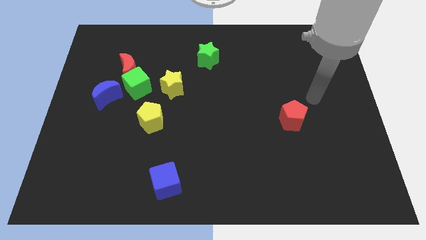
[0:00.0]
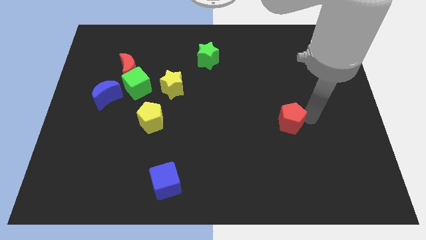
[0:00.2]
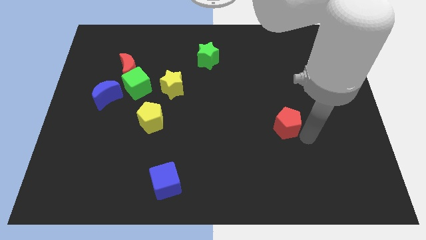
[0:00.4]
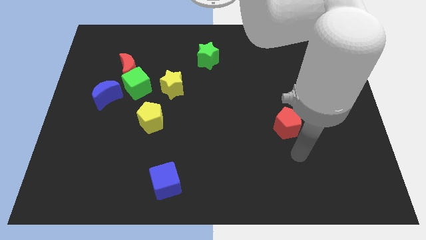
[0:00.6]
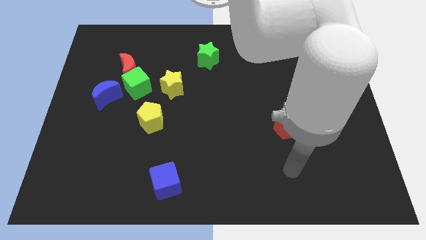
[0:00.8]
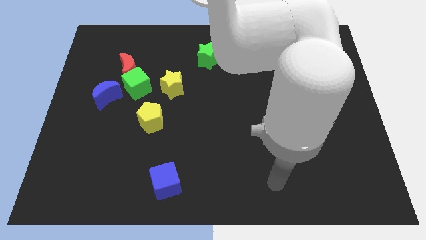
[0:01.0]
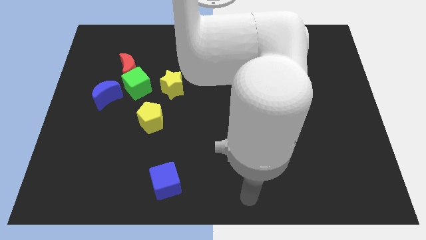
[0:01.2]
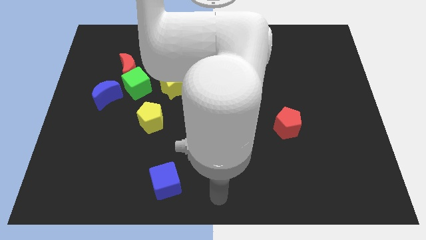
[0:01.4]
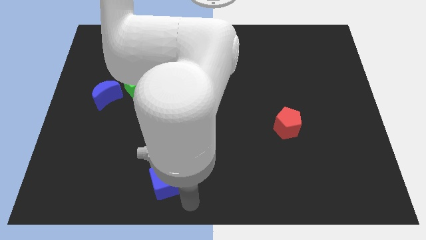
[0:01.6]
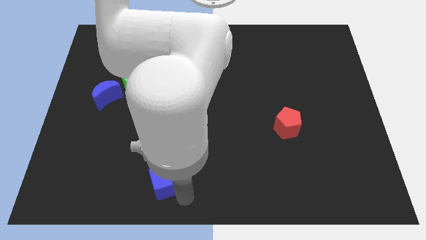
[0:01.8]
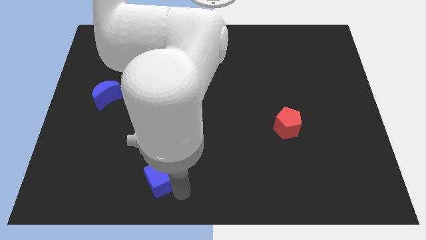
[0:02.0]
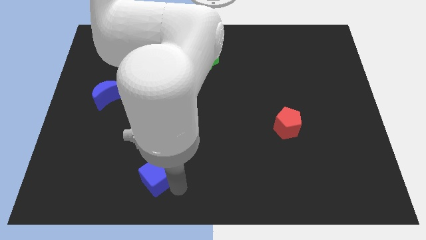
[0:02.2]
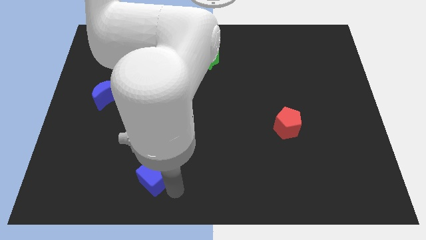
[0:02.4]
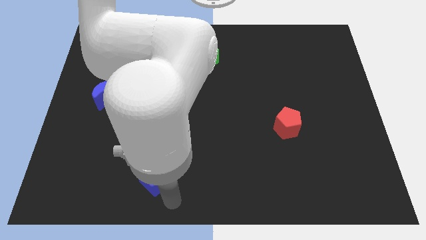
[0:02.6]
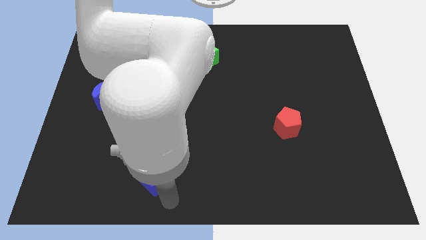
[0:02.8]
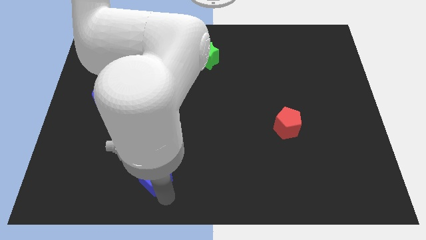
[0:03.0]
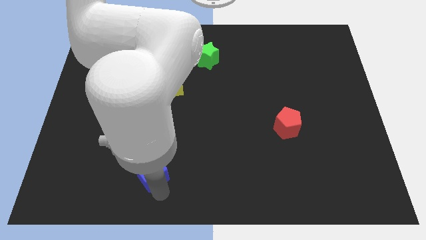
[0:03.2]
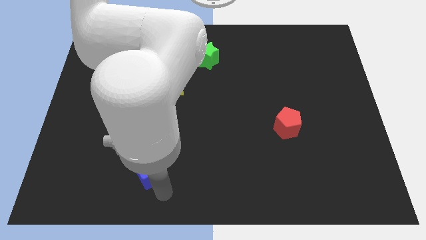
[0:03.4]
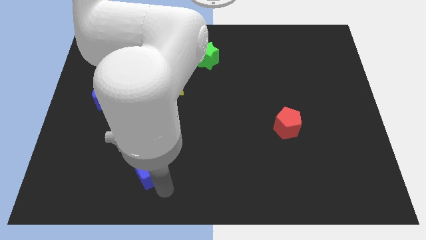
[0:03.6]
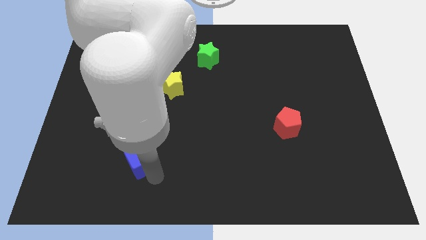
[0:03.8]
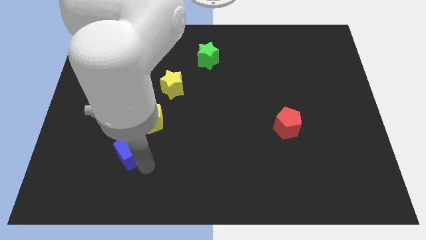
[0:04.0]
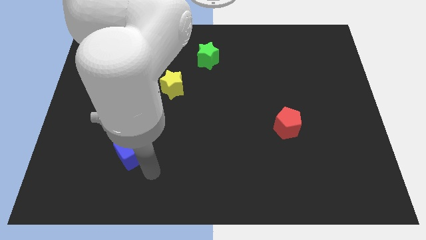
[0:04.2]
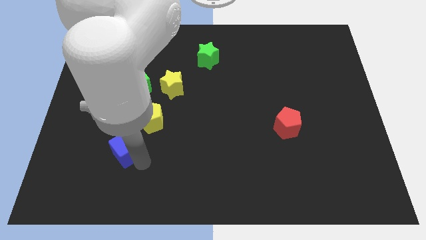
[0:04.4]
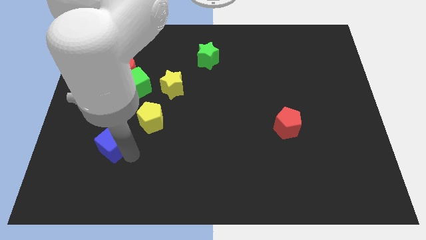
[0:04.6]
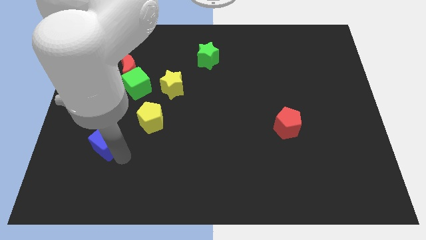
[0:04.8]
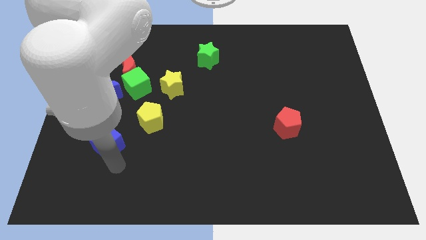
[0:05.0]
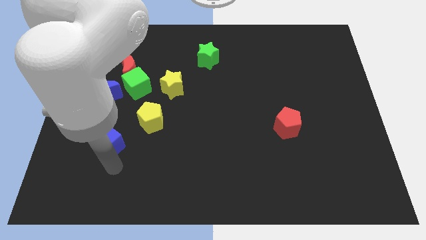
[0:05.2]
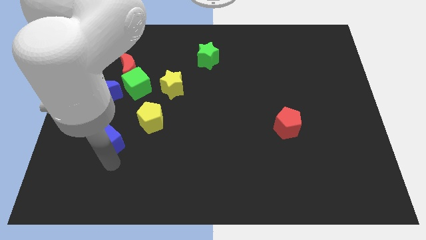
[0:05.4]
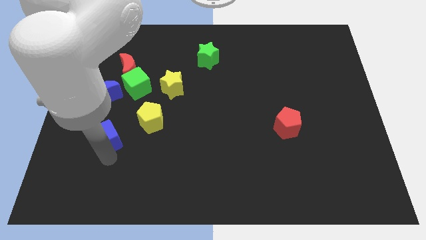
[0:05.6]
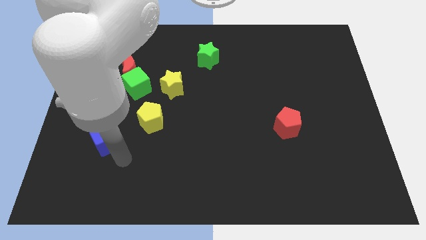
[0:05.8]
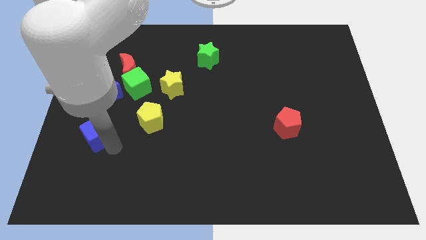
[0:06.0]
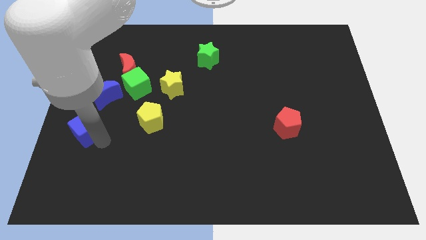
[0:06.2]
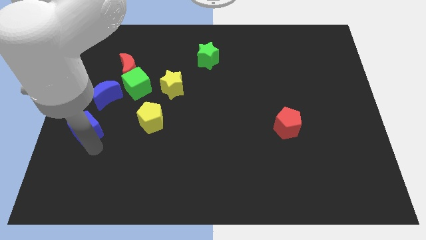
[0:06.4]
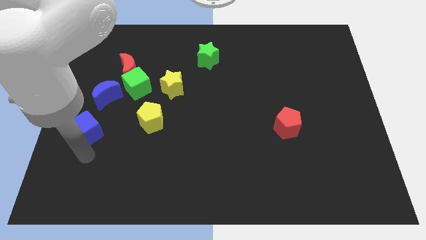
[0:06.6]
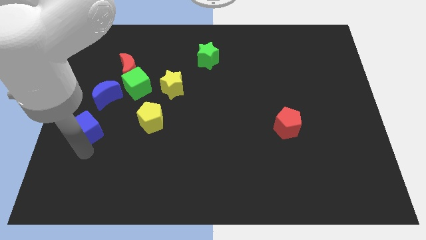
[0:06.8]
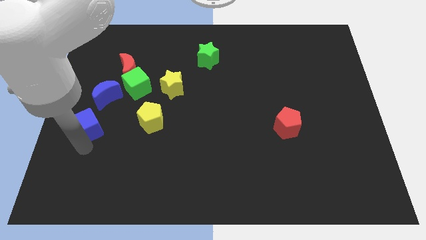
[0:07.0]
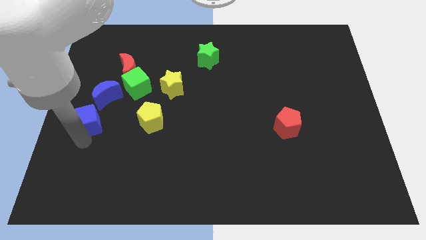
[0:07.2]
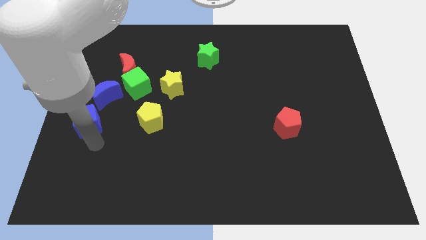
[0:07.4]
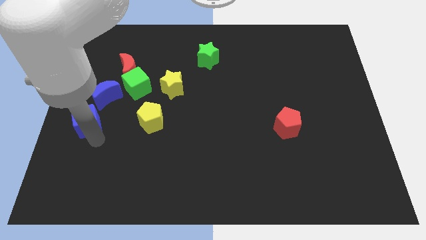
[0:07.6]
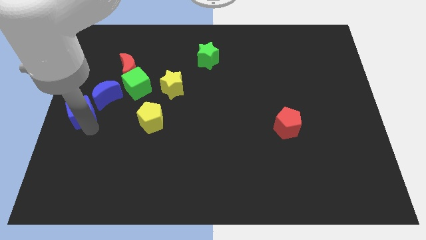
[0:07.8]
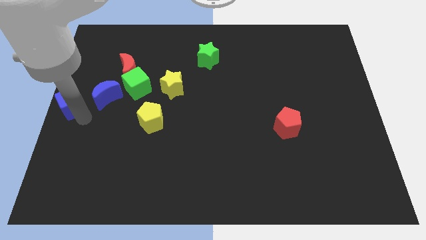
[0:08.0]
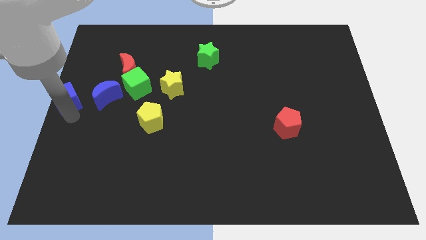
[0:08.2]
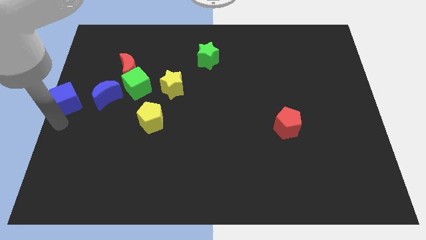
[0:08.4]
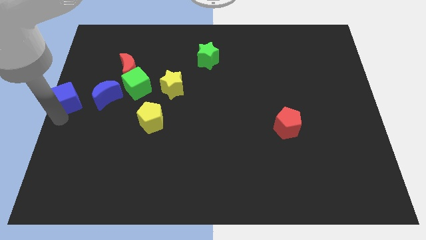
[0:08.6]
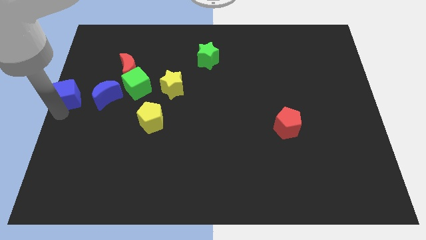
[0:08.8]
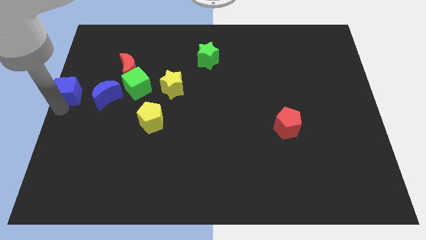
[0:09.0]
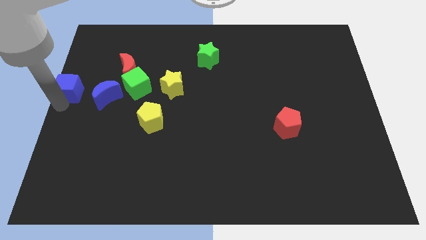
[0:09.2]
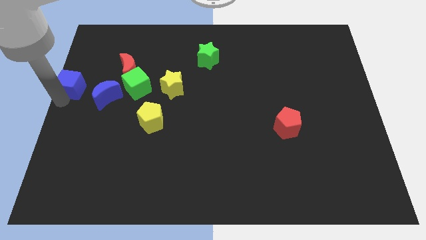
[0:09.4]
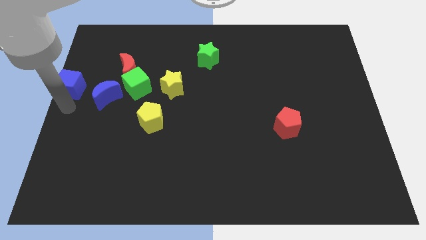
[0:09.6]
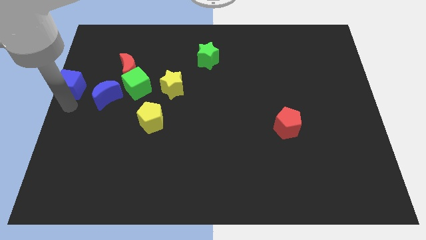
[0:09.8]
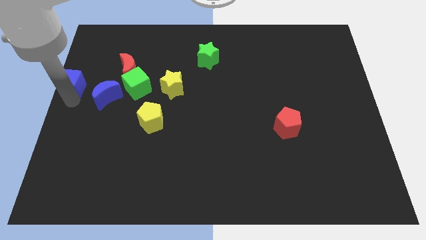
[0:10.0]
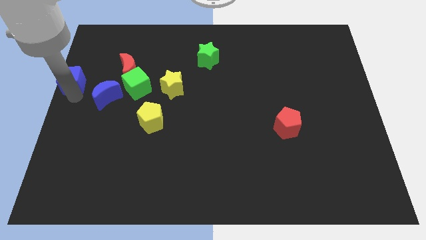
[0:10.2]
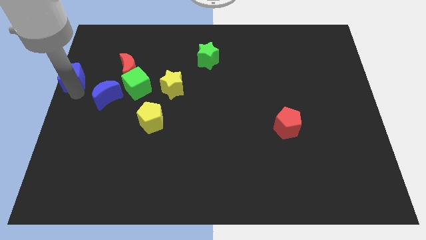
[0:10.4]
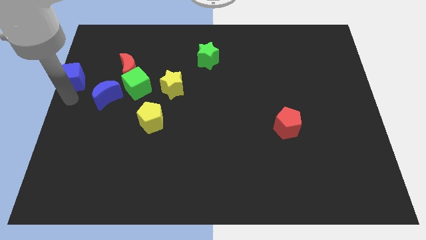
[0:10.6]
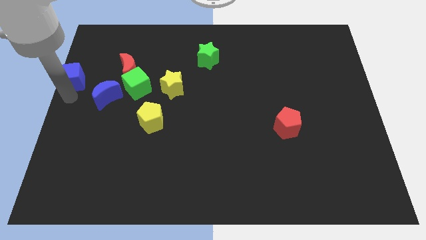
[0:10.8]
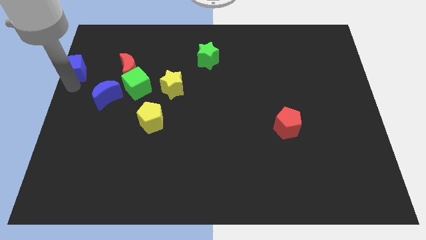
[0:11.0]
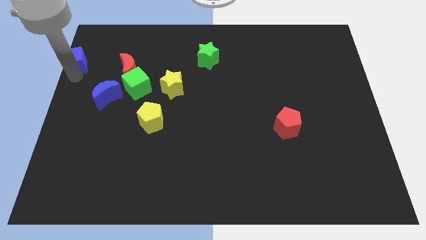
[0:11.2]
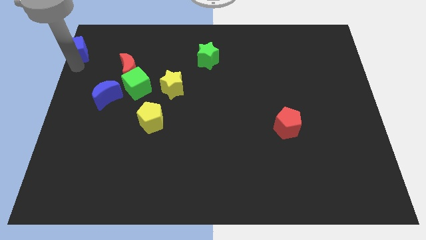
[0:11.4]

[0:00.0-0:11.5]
slide the blue cube to the top left of the board
